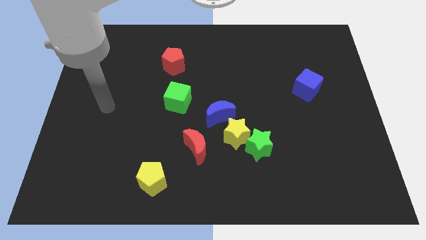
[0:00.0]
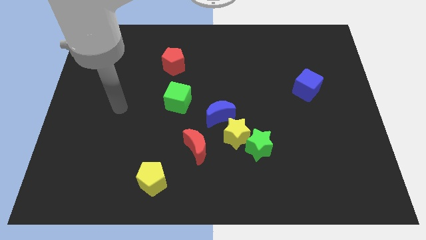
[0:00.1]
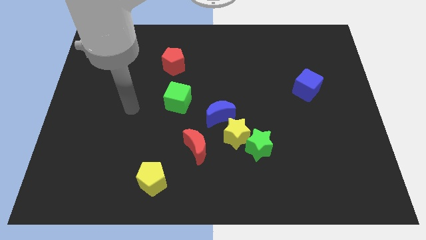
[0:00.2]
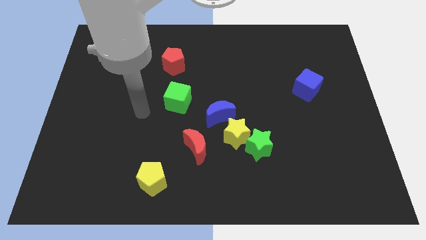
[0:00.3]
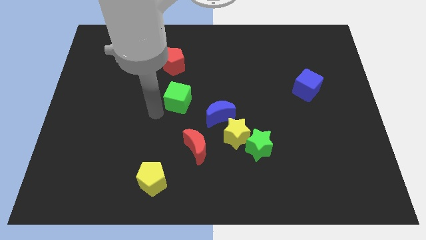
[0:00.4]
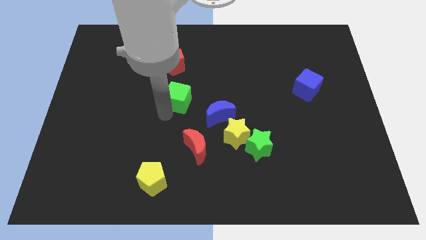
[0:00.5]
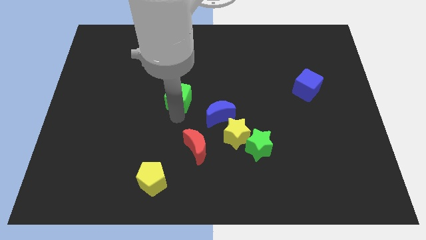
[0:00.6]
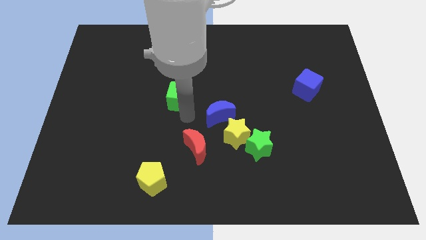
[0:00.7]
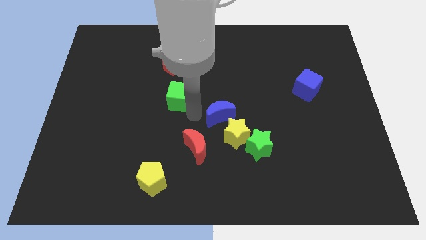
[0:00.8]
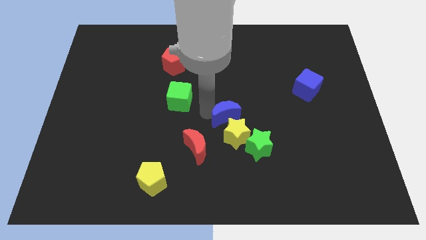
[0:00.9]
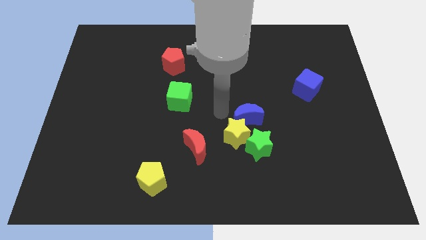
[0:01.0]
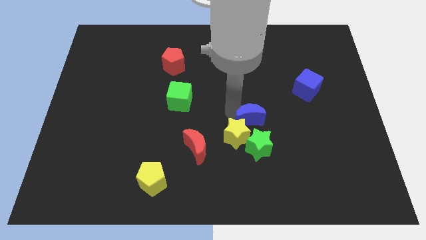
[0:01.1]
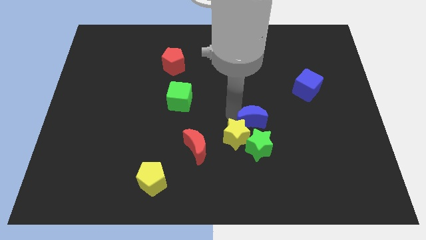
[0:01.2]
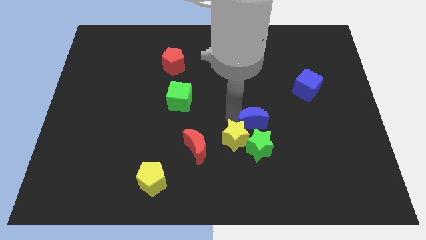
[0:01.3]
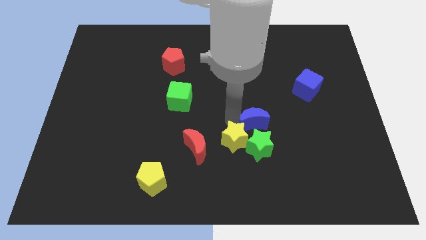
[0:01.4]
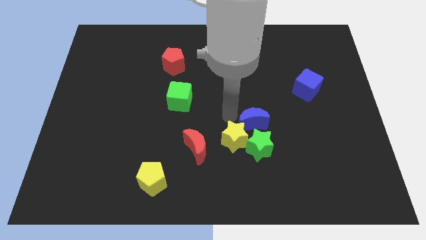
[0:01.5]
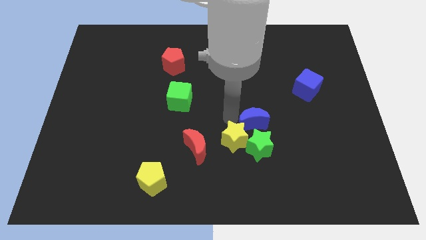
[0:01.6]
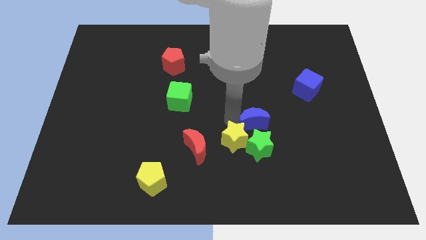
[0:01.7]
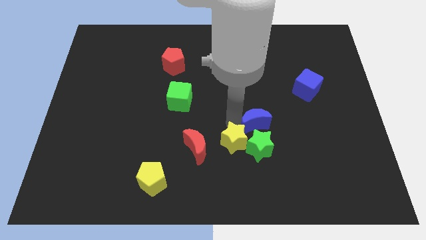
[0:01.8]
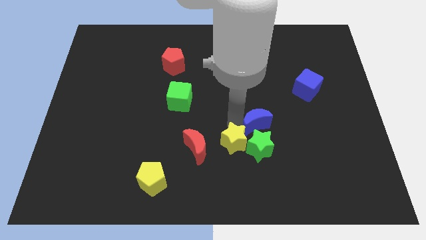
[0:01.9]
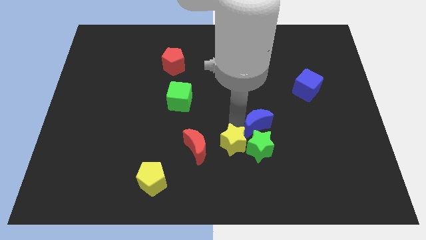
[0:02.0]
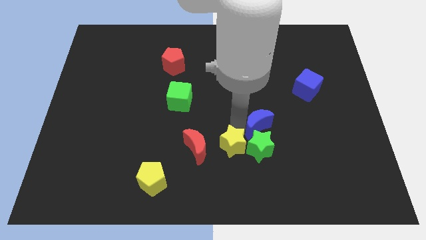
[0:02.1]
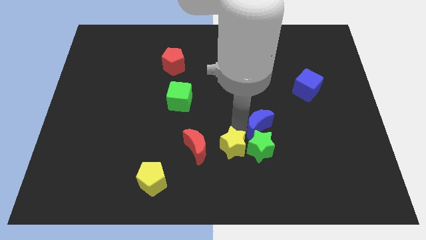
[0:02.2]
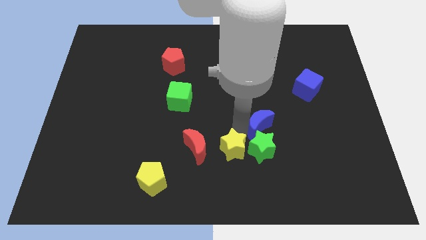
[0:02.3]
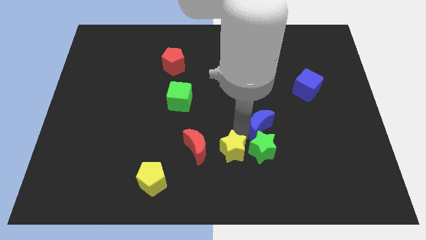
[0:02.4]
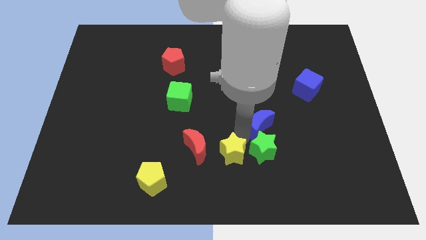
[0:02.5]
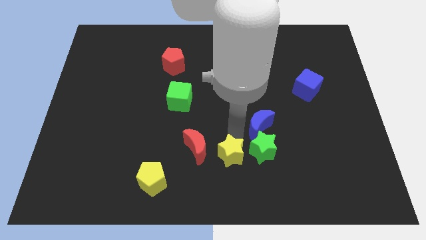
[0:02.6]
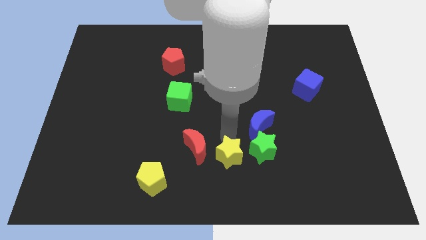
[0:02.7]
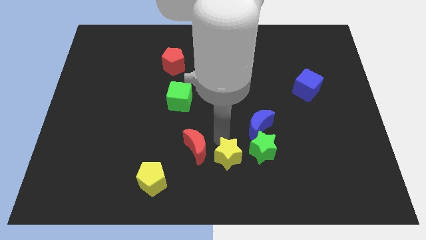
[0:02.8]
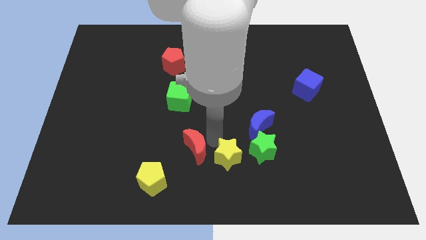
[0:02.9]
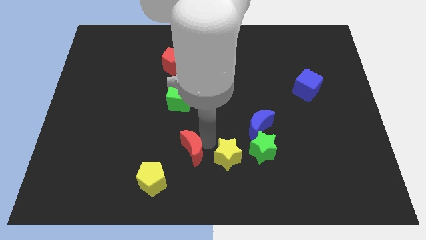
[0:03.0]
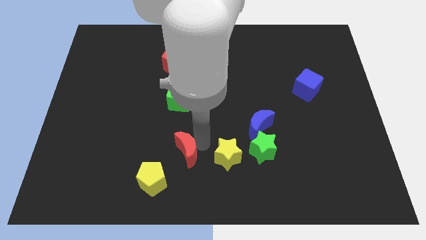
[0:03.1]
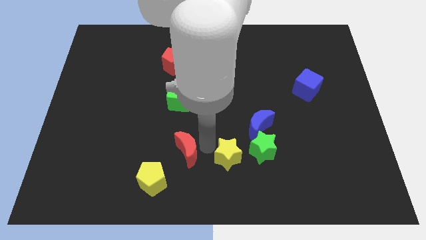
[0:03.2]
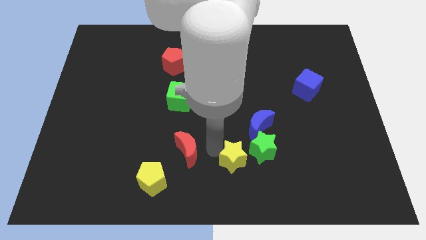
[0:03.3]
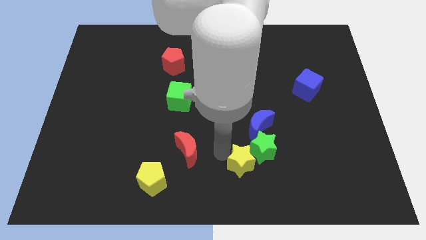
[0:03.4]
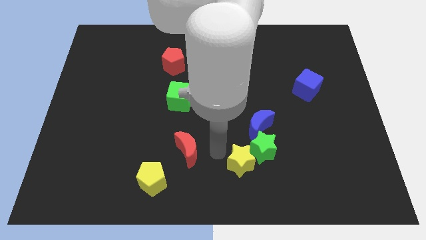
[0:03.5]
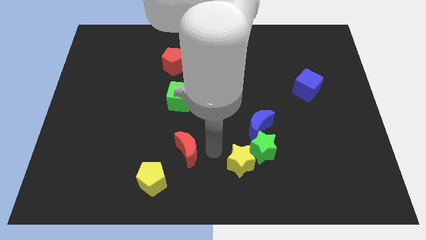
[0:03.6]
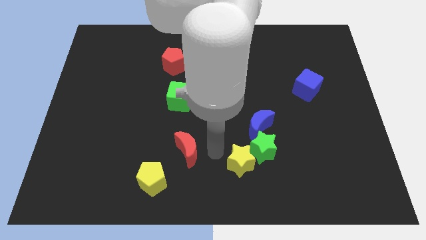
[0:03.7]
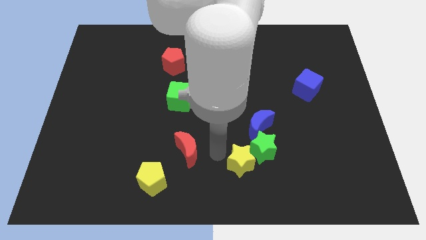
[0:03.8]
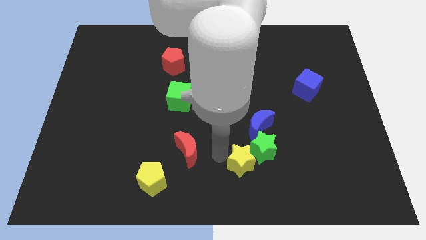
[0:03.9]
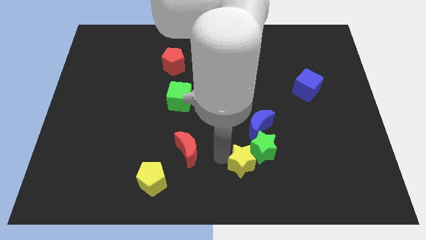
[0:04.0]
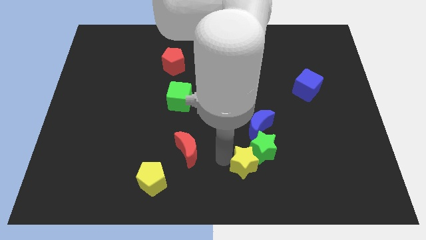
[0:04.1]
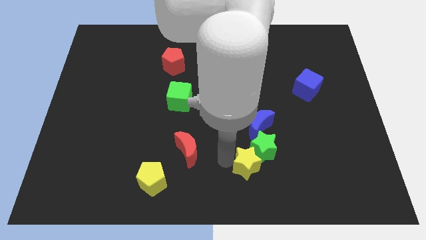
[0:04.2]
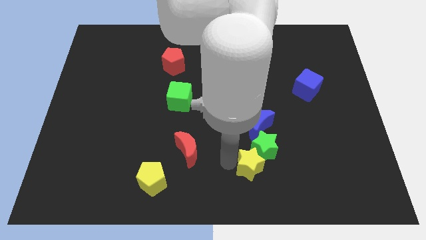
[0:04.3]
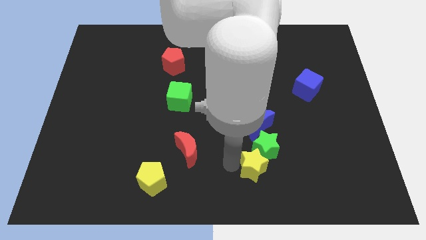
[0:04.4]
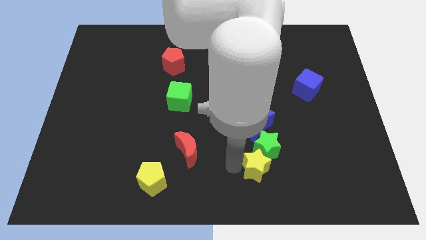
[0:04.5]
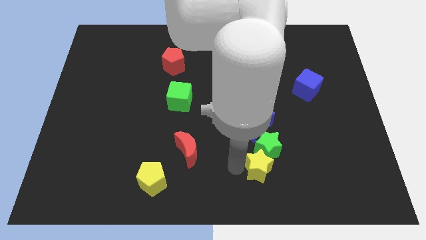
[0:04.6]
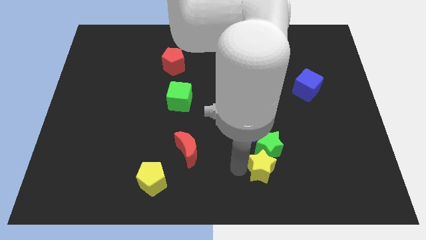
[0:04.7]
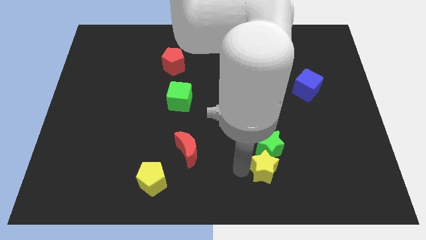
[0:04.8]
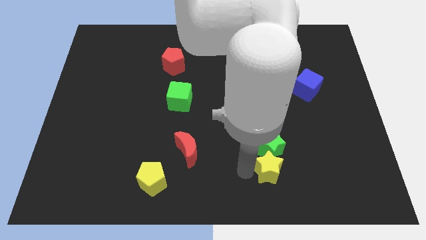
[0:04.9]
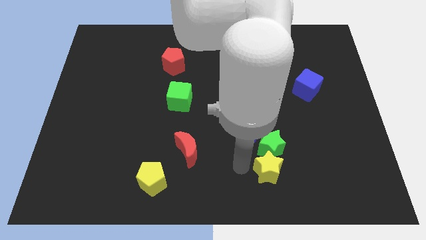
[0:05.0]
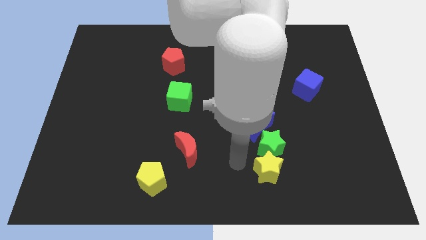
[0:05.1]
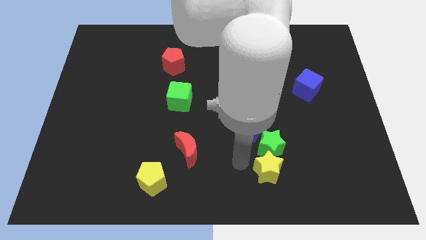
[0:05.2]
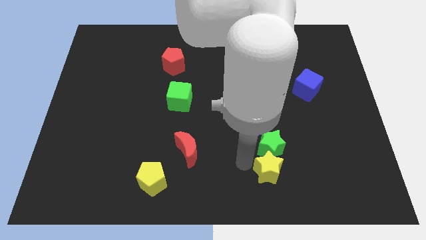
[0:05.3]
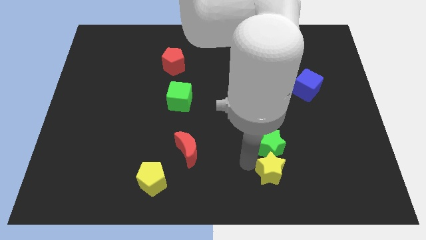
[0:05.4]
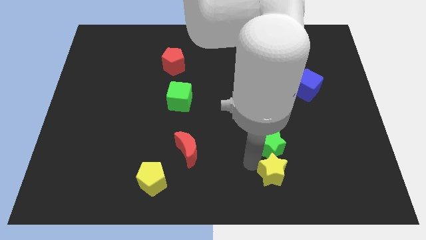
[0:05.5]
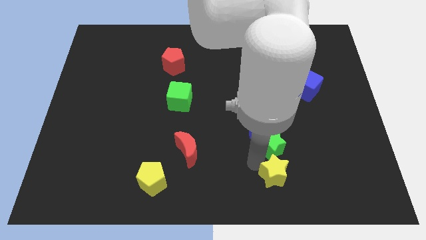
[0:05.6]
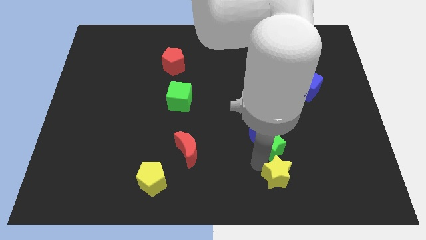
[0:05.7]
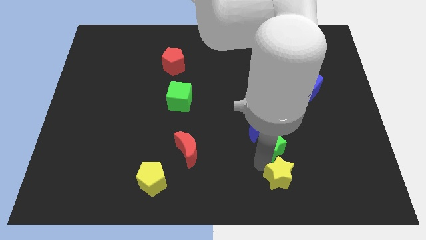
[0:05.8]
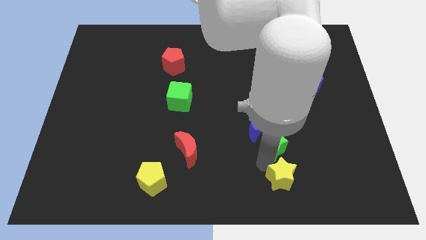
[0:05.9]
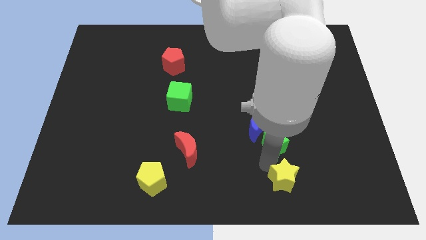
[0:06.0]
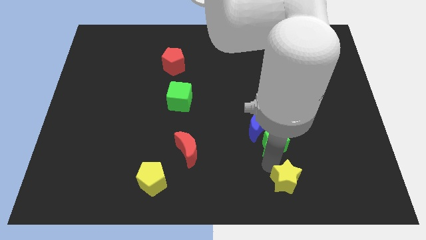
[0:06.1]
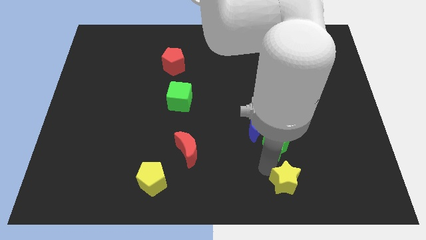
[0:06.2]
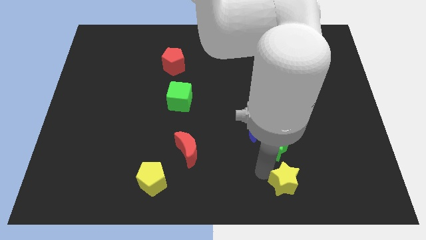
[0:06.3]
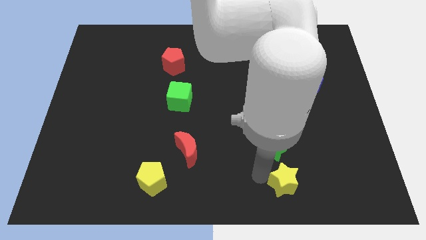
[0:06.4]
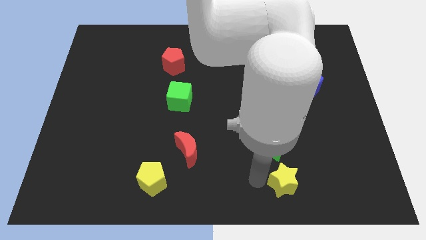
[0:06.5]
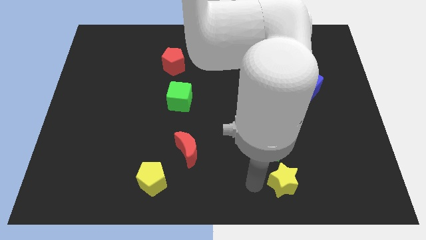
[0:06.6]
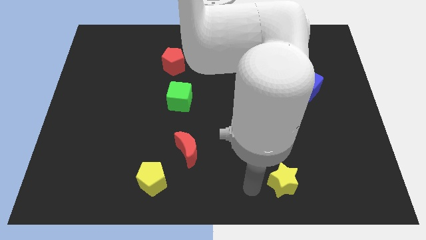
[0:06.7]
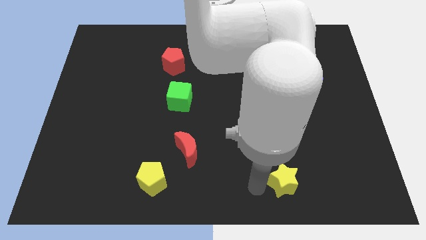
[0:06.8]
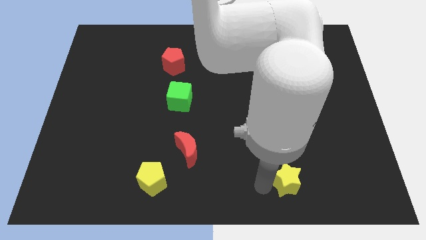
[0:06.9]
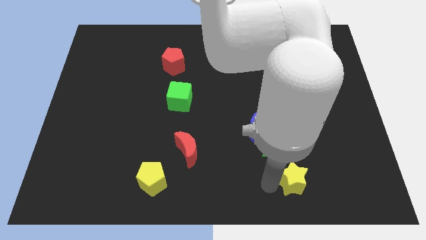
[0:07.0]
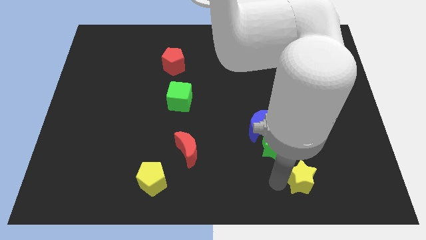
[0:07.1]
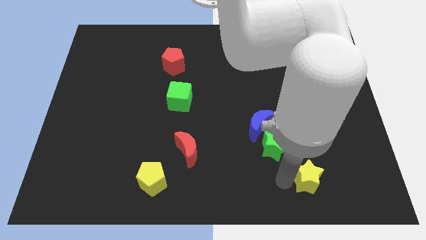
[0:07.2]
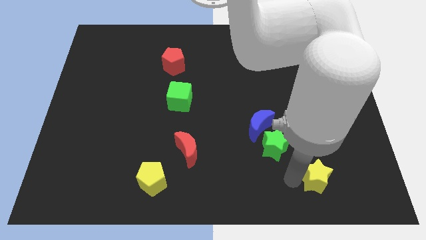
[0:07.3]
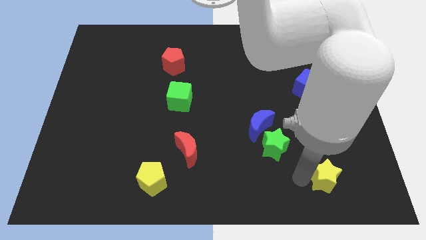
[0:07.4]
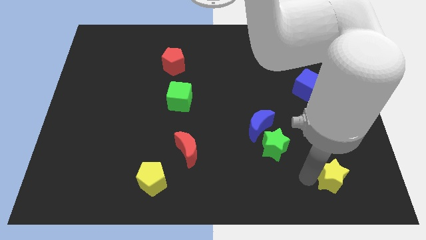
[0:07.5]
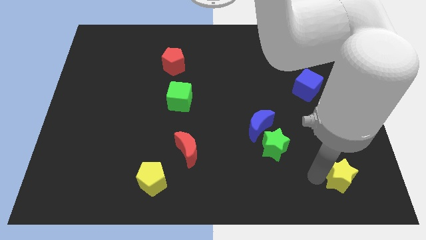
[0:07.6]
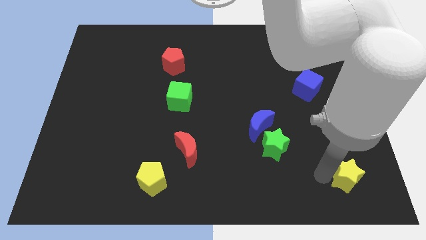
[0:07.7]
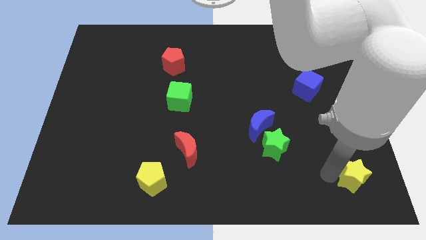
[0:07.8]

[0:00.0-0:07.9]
slide the yellow star to the bottom right
